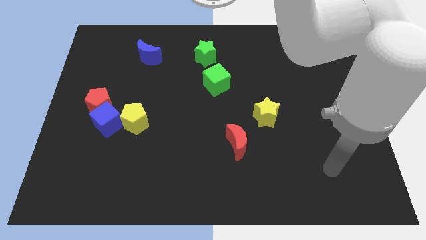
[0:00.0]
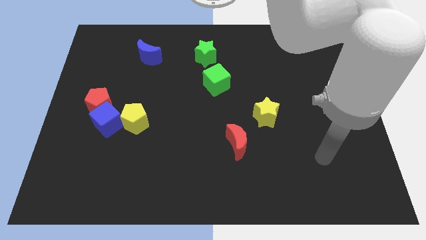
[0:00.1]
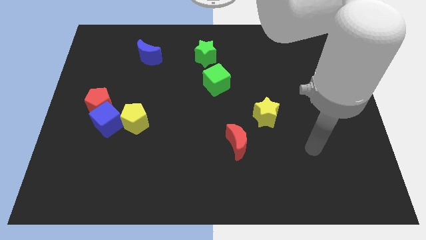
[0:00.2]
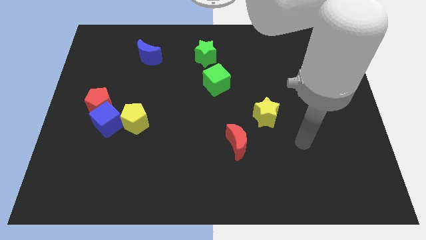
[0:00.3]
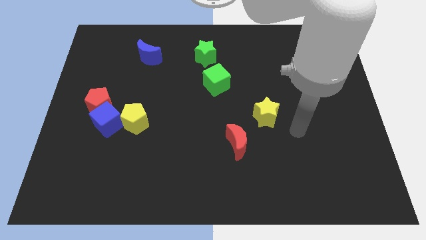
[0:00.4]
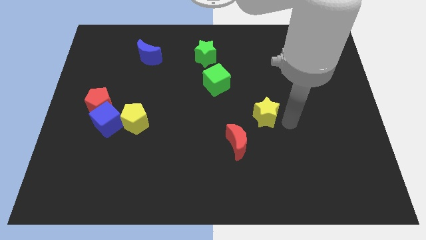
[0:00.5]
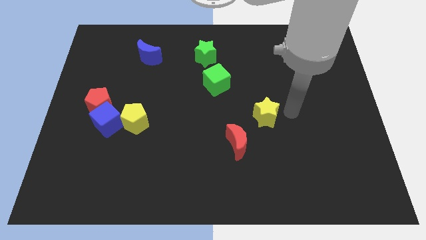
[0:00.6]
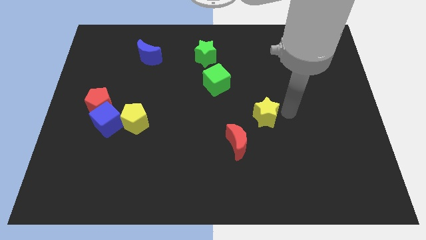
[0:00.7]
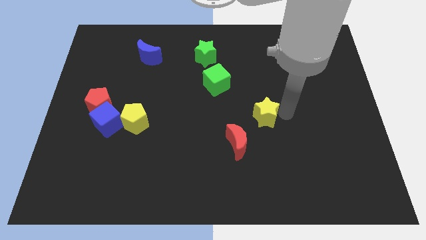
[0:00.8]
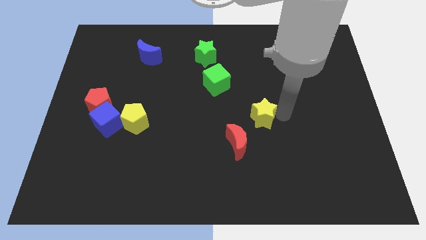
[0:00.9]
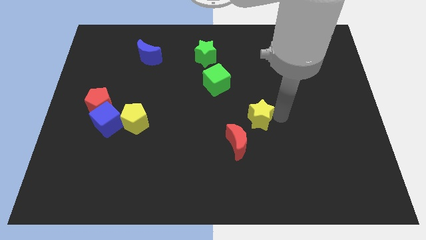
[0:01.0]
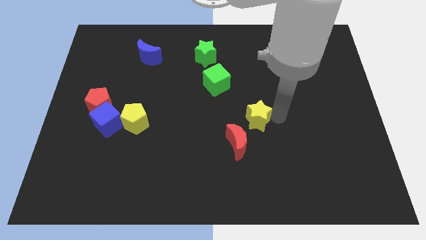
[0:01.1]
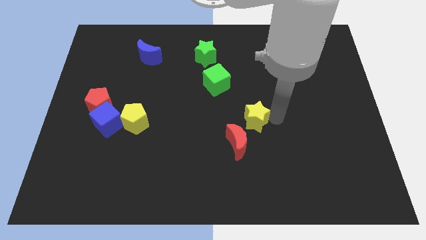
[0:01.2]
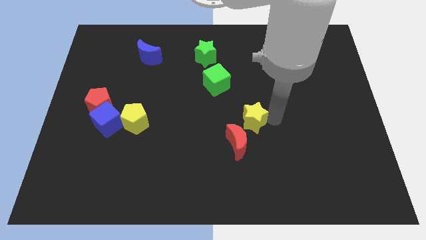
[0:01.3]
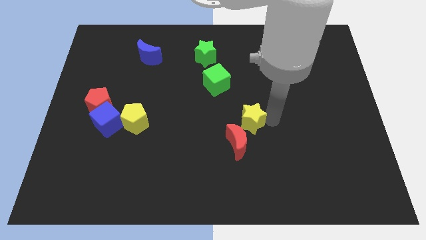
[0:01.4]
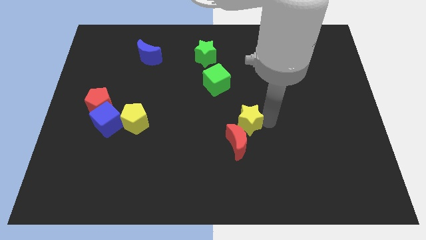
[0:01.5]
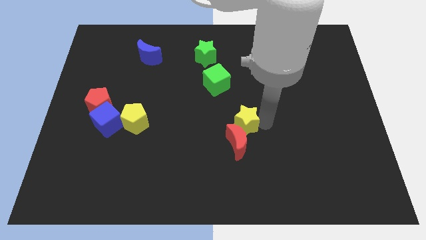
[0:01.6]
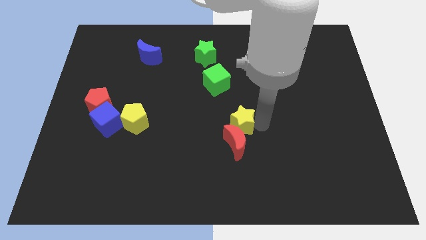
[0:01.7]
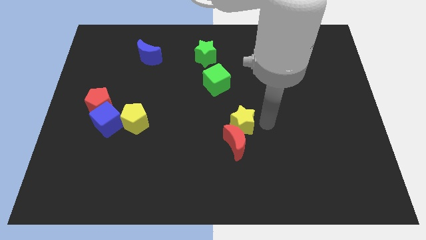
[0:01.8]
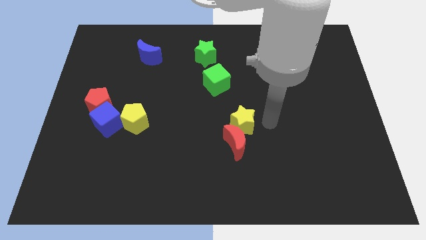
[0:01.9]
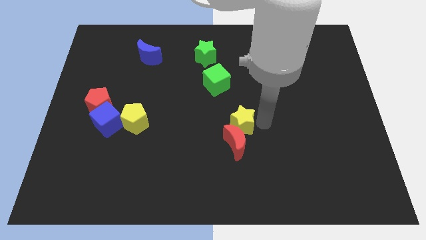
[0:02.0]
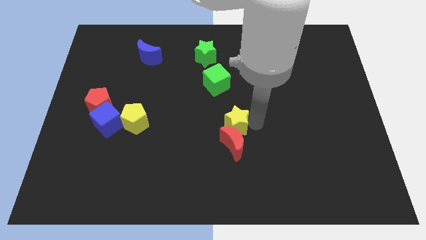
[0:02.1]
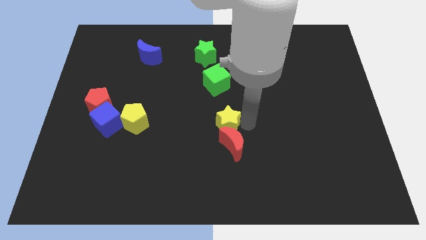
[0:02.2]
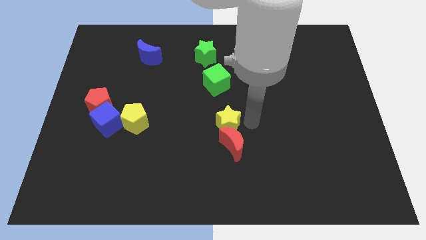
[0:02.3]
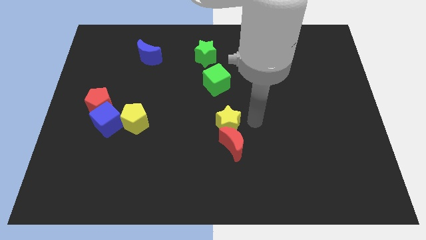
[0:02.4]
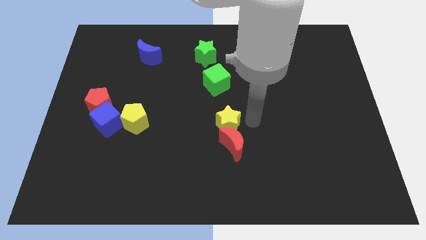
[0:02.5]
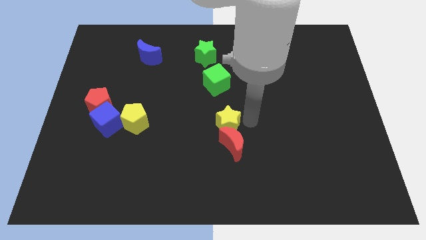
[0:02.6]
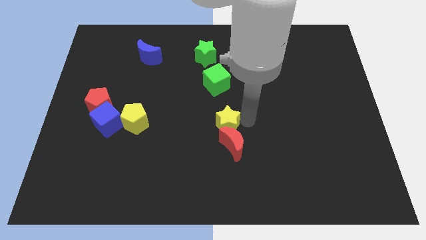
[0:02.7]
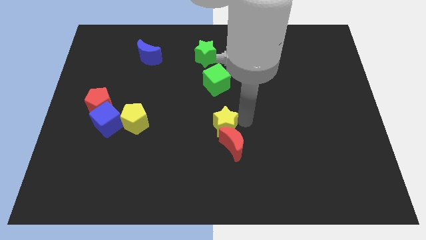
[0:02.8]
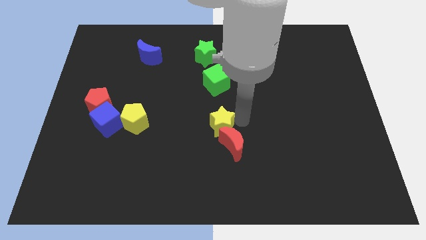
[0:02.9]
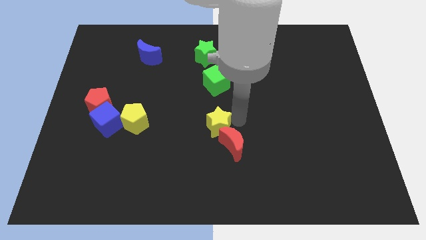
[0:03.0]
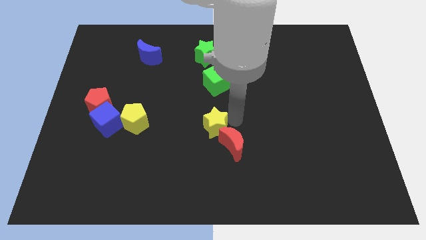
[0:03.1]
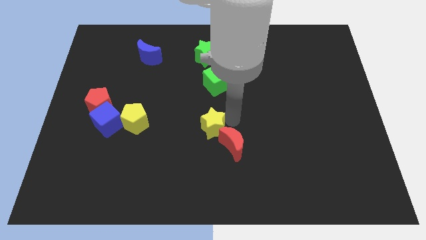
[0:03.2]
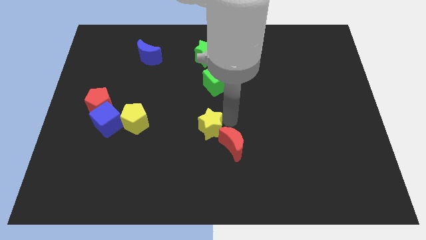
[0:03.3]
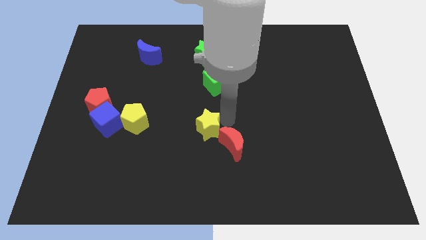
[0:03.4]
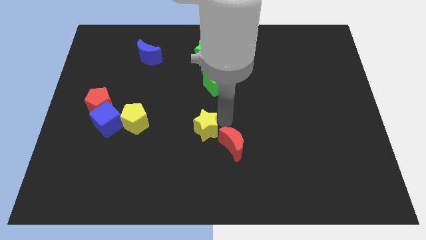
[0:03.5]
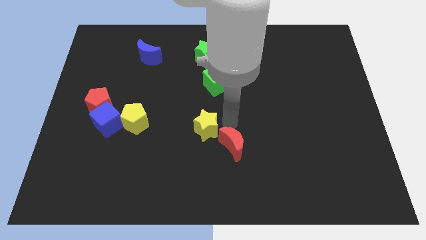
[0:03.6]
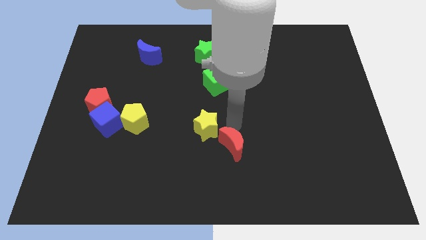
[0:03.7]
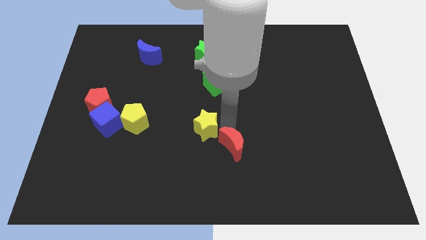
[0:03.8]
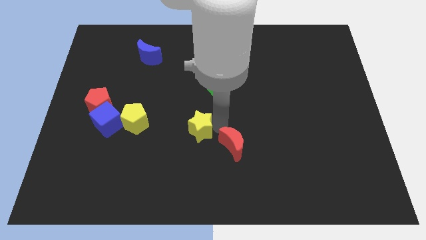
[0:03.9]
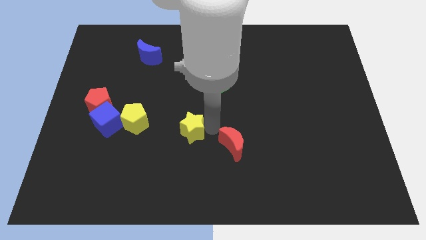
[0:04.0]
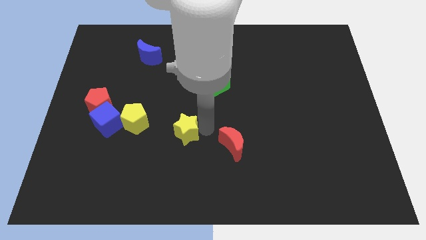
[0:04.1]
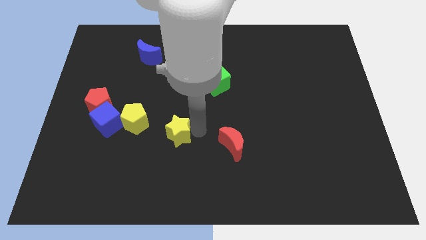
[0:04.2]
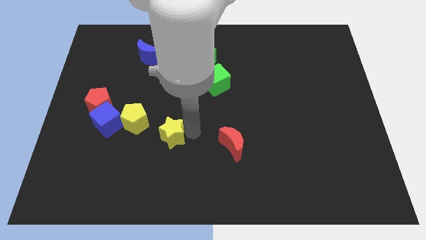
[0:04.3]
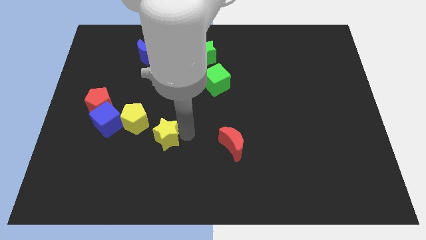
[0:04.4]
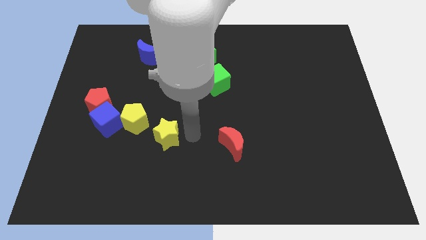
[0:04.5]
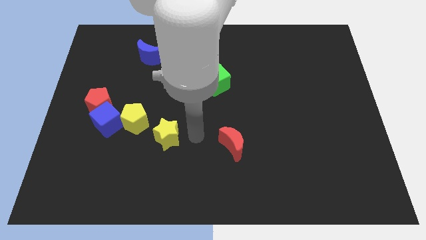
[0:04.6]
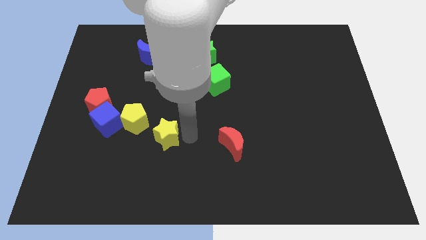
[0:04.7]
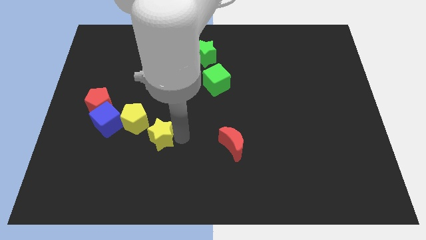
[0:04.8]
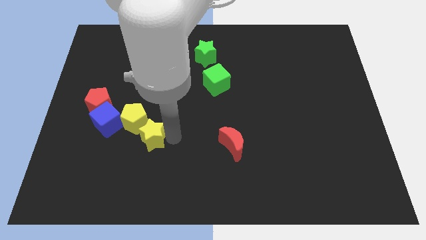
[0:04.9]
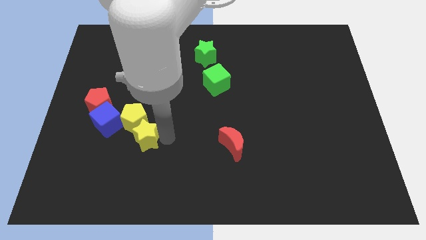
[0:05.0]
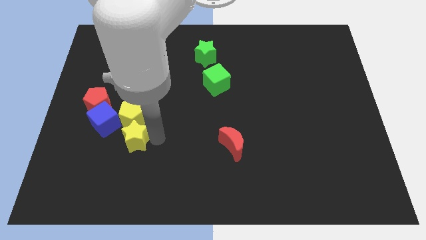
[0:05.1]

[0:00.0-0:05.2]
move the yellow star diagonally down and to the left of the yellow pentagon

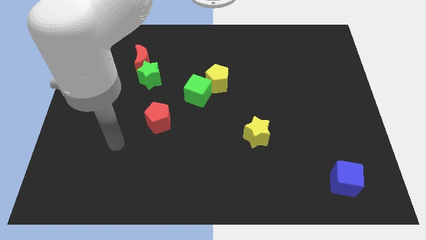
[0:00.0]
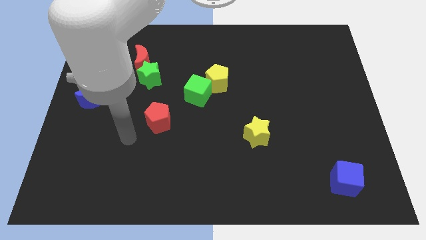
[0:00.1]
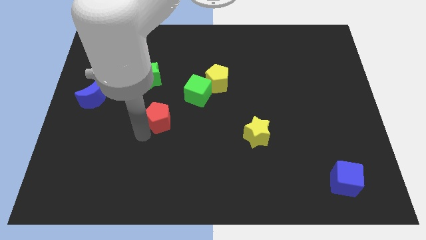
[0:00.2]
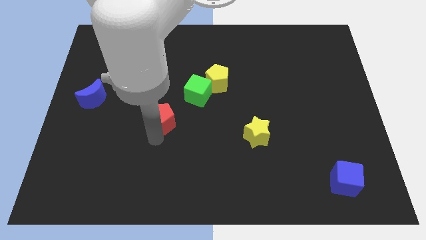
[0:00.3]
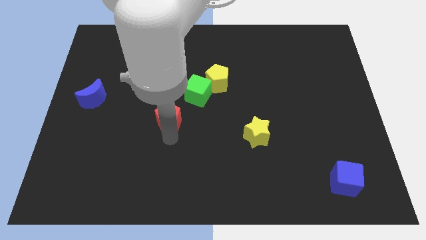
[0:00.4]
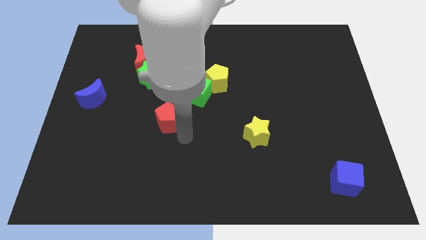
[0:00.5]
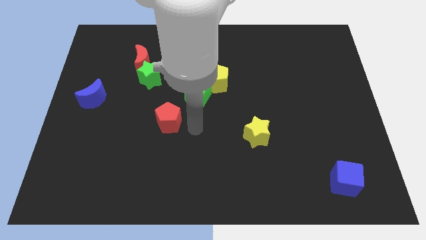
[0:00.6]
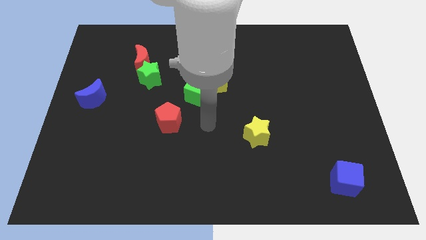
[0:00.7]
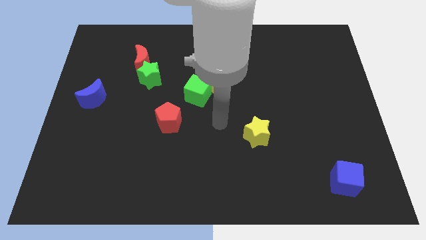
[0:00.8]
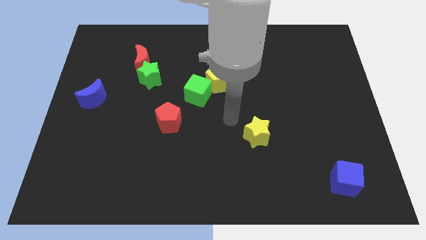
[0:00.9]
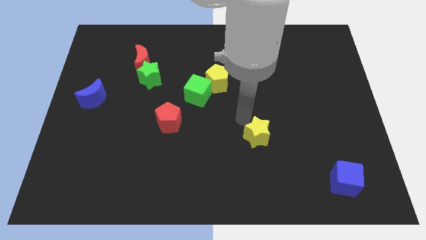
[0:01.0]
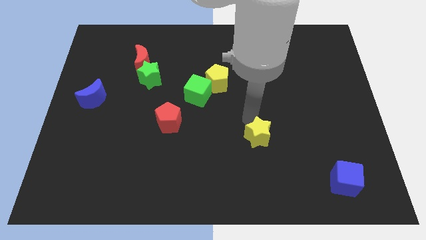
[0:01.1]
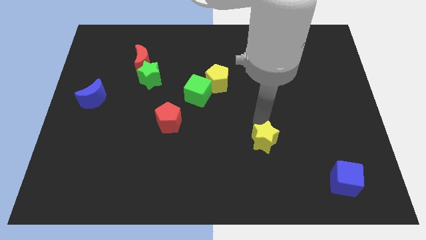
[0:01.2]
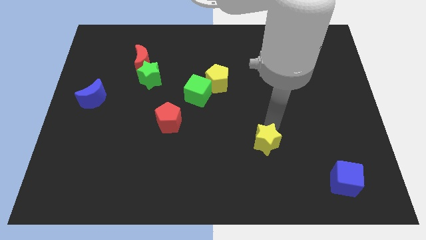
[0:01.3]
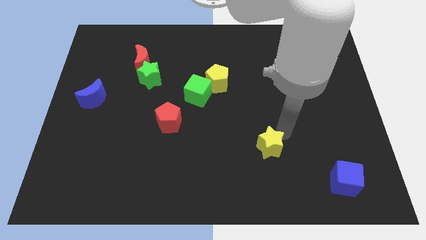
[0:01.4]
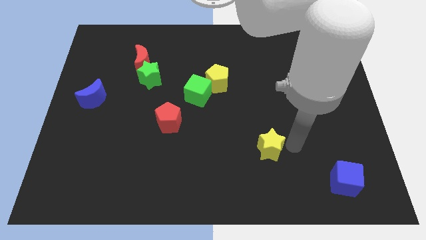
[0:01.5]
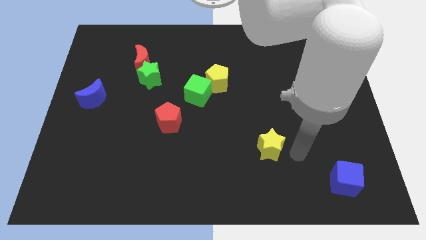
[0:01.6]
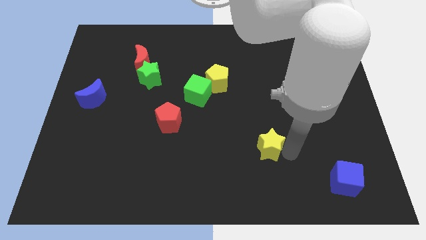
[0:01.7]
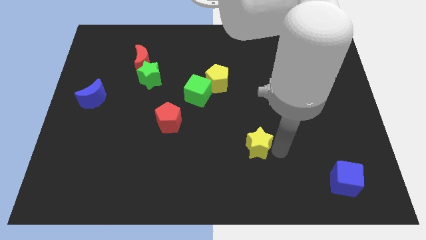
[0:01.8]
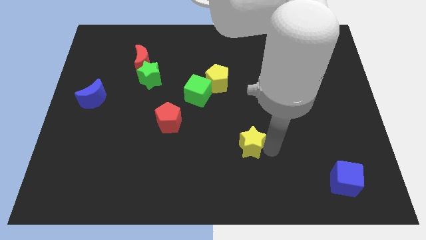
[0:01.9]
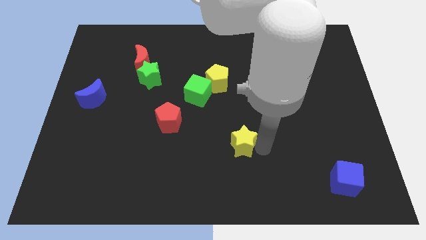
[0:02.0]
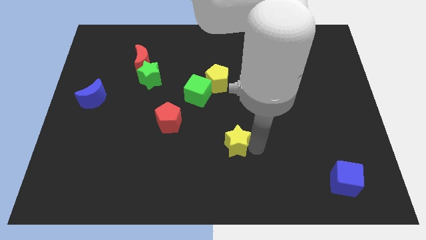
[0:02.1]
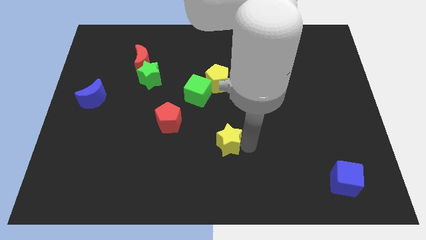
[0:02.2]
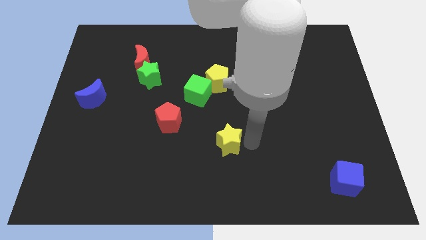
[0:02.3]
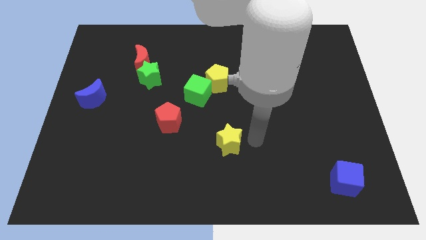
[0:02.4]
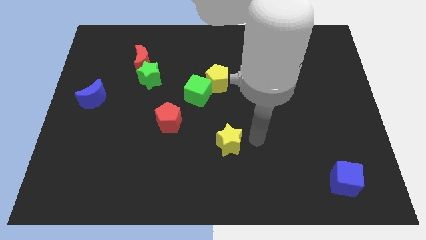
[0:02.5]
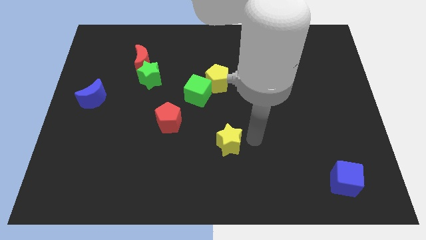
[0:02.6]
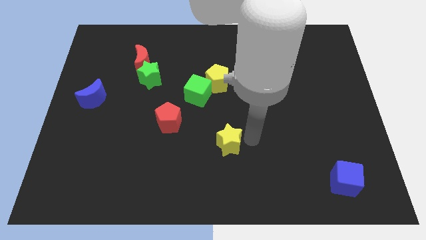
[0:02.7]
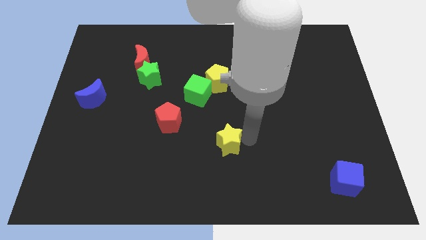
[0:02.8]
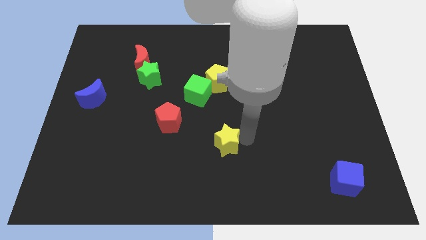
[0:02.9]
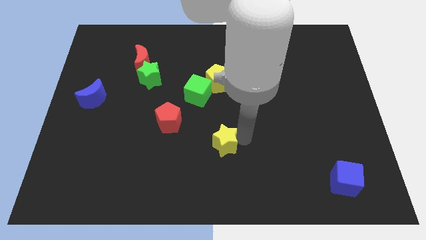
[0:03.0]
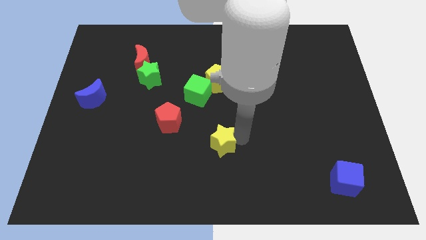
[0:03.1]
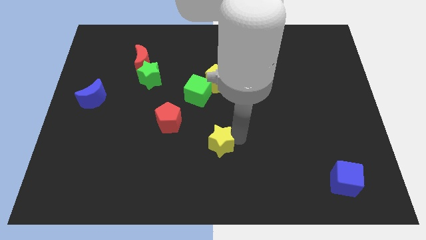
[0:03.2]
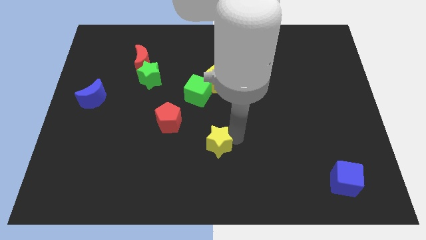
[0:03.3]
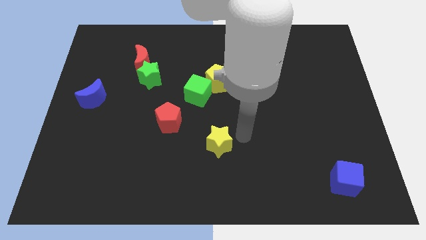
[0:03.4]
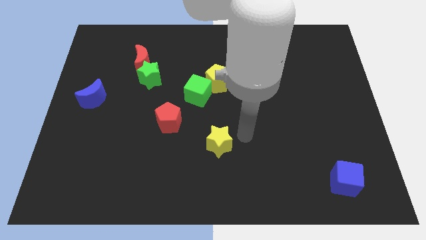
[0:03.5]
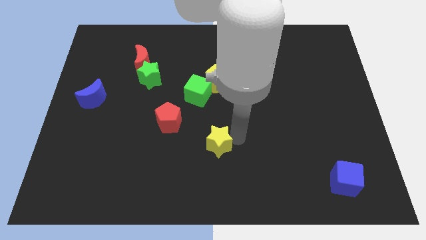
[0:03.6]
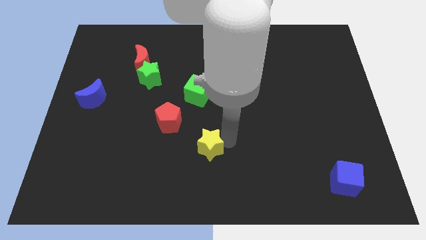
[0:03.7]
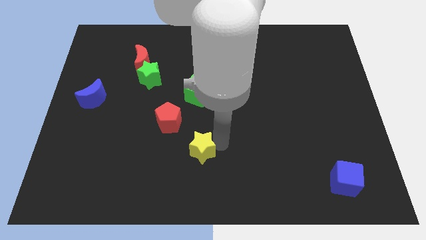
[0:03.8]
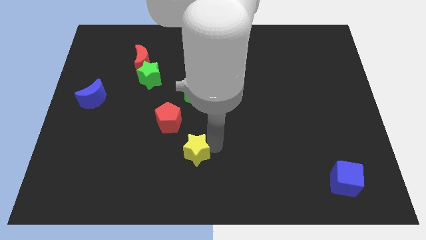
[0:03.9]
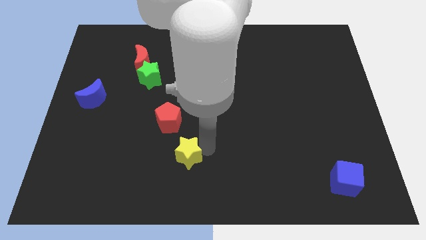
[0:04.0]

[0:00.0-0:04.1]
push the yellow star to the bottom side of the red pentagon
